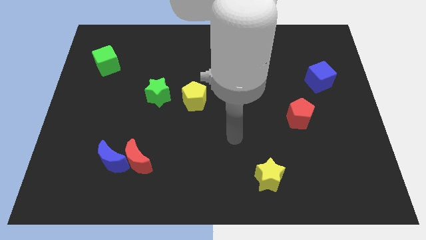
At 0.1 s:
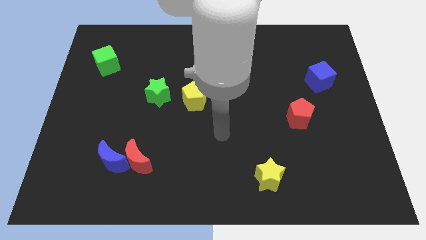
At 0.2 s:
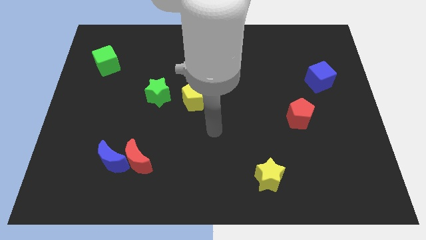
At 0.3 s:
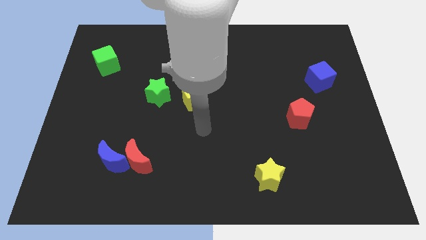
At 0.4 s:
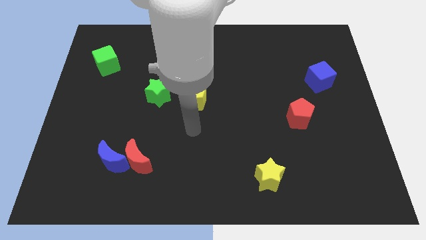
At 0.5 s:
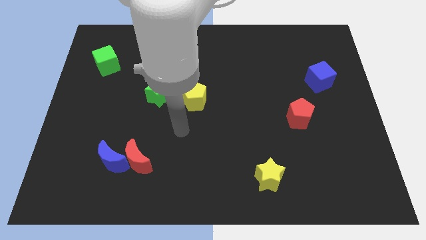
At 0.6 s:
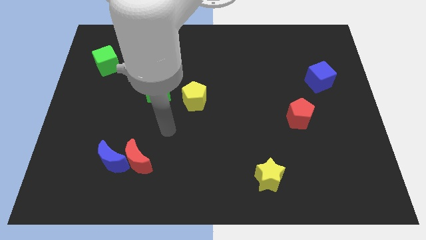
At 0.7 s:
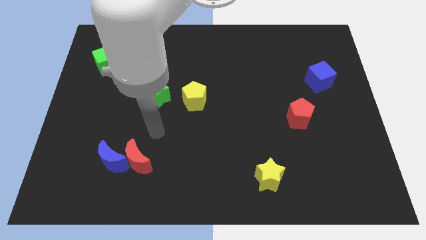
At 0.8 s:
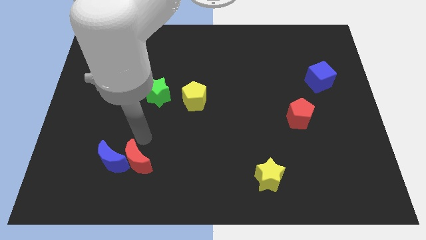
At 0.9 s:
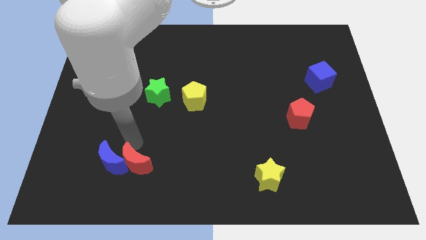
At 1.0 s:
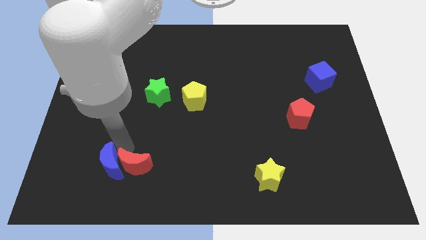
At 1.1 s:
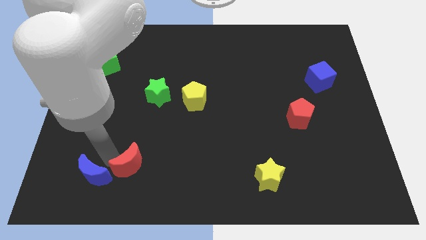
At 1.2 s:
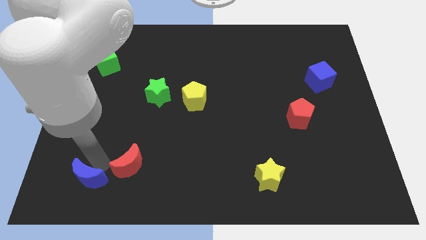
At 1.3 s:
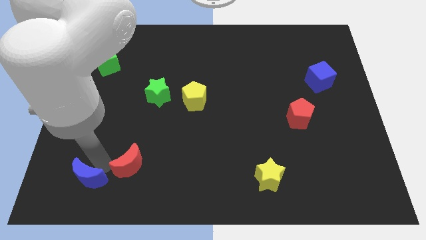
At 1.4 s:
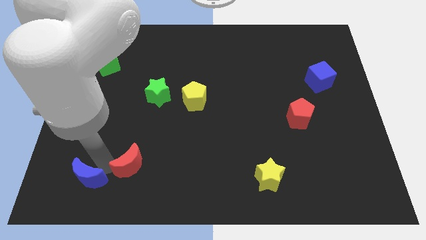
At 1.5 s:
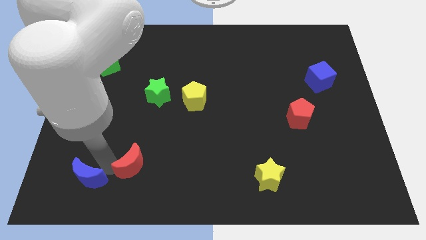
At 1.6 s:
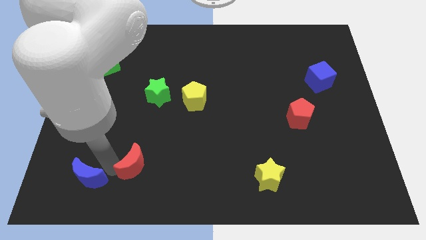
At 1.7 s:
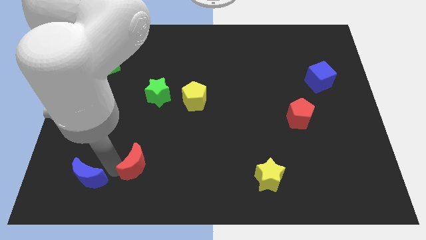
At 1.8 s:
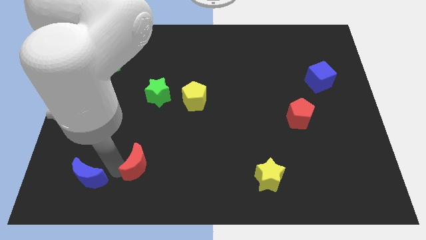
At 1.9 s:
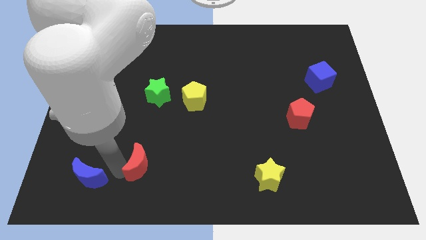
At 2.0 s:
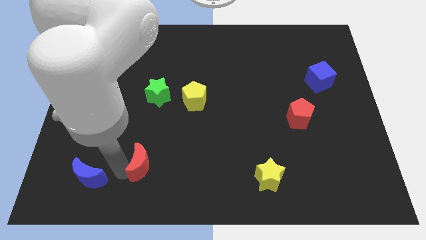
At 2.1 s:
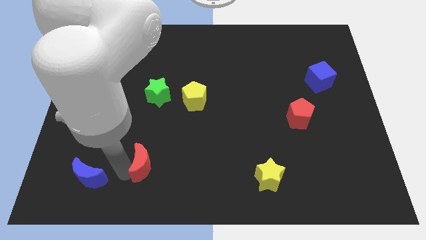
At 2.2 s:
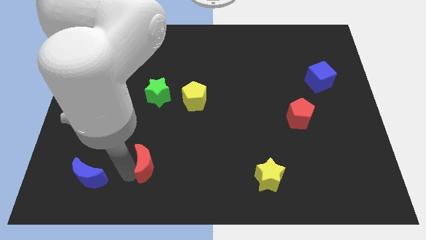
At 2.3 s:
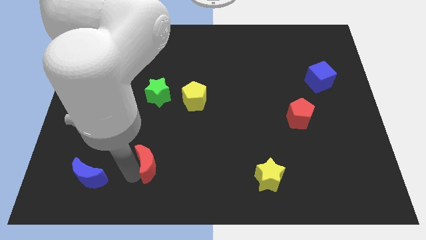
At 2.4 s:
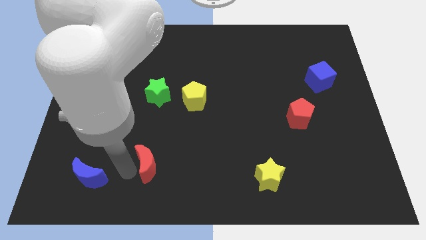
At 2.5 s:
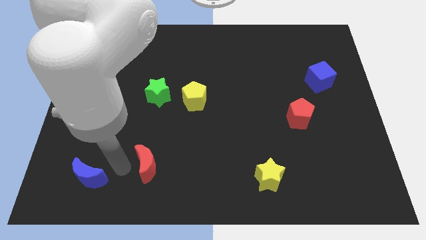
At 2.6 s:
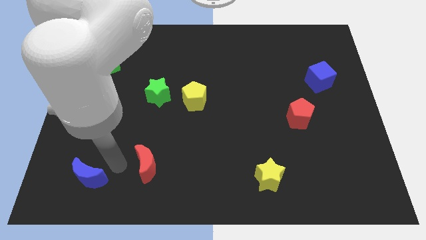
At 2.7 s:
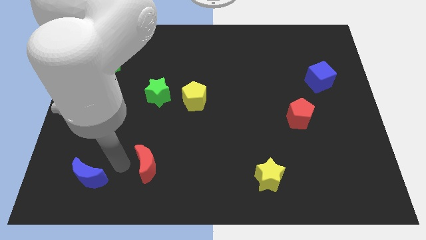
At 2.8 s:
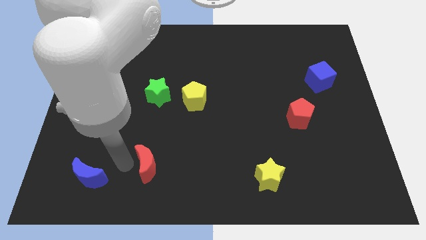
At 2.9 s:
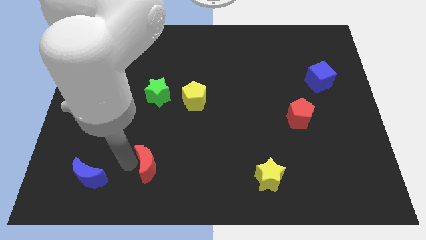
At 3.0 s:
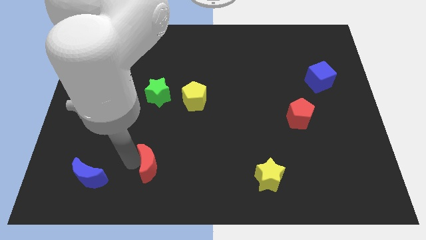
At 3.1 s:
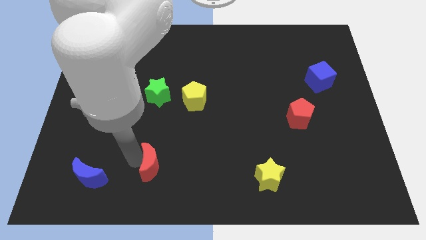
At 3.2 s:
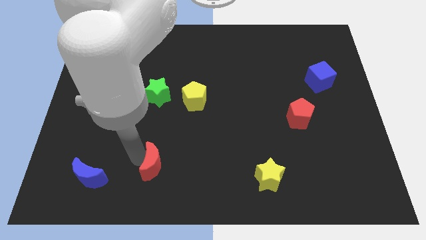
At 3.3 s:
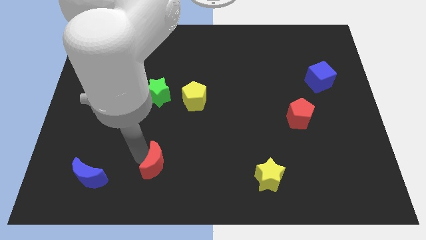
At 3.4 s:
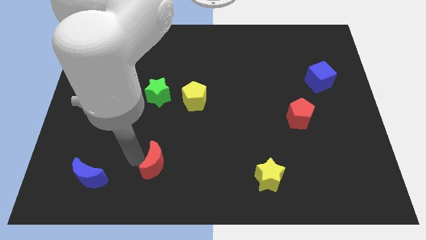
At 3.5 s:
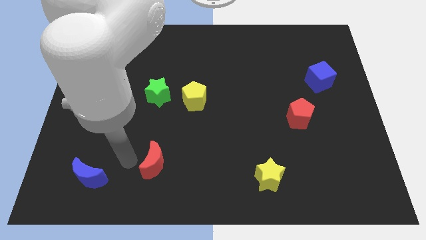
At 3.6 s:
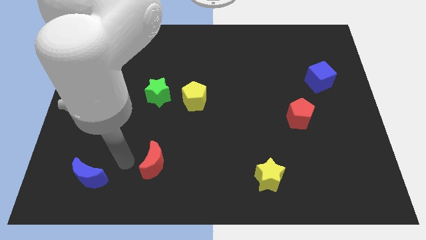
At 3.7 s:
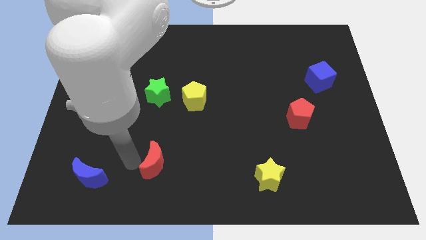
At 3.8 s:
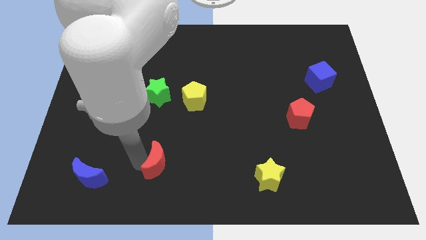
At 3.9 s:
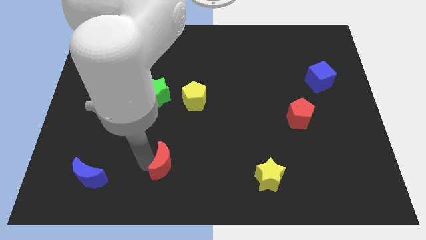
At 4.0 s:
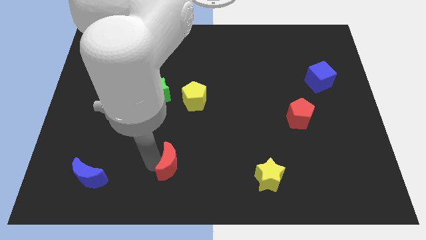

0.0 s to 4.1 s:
slightly move the red moon right

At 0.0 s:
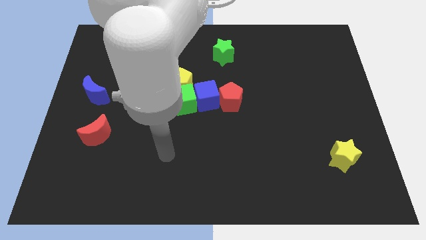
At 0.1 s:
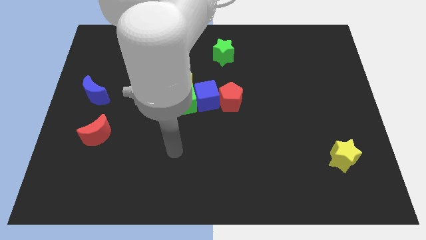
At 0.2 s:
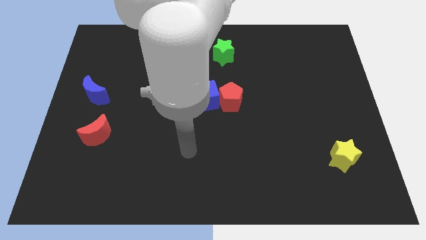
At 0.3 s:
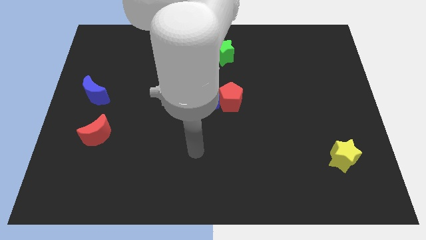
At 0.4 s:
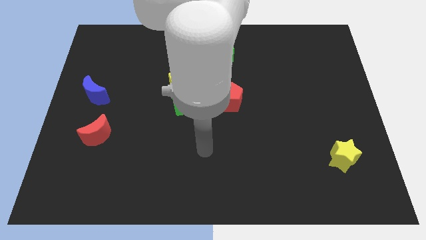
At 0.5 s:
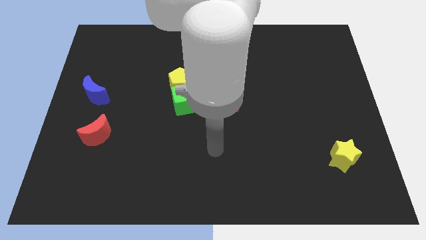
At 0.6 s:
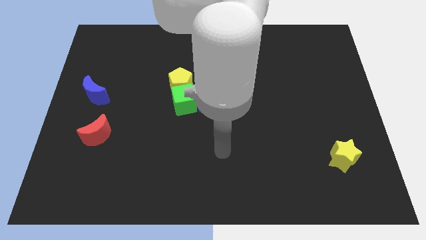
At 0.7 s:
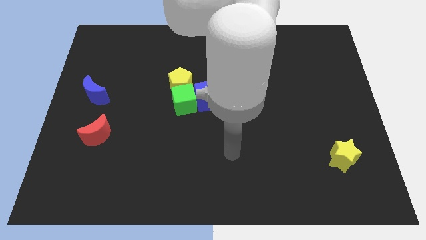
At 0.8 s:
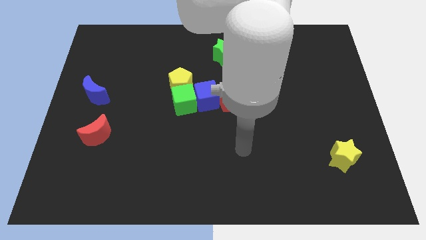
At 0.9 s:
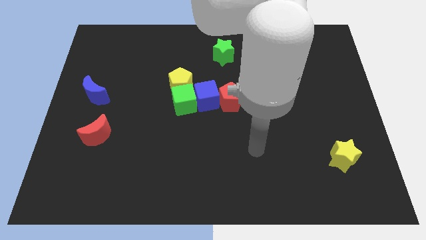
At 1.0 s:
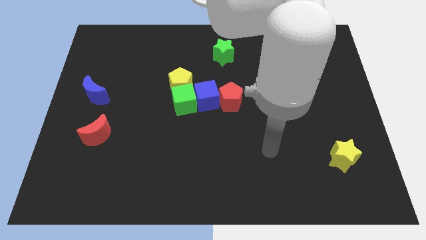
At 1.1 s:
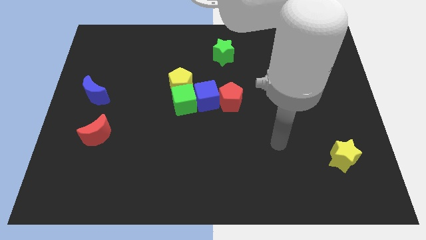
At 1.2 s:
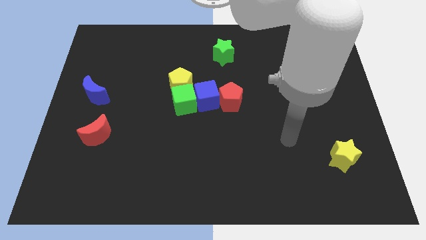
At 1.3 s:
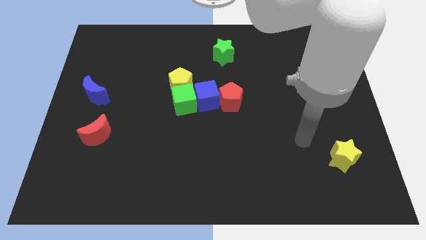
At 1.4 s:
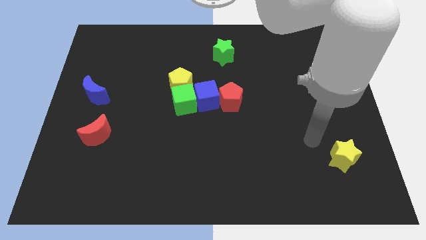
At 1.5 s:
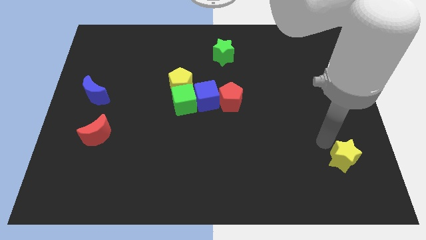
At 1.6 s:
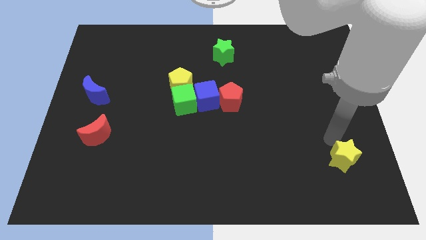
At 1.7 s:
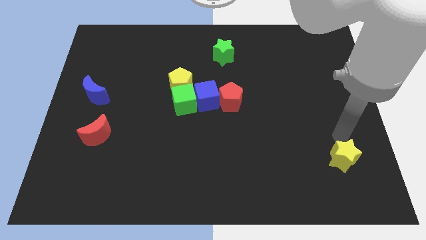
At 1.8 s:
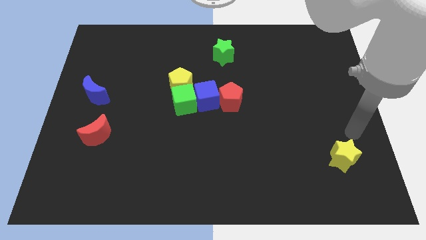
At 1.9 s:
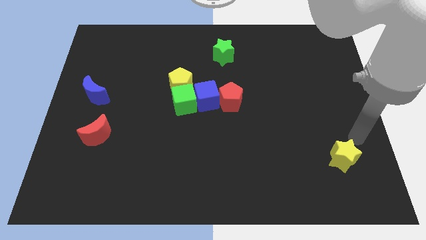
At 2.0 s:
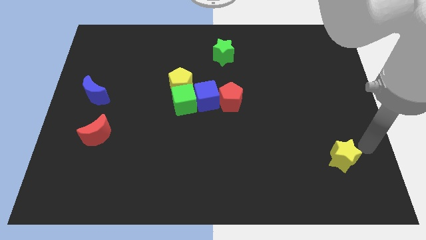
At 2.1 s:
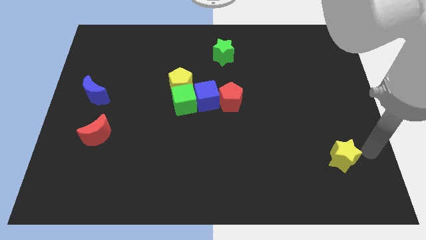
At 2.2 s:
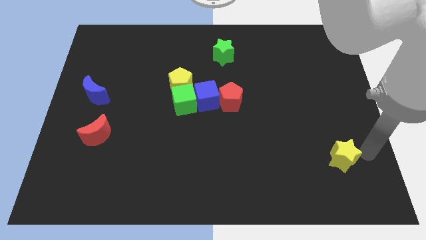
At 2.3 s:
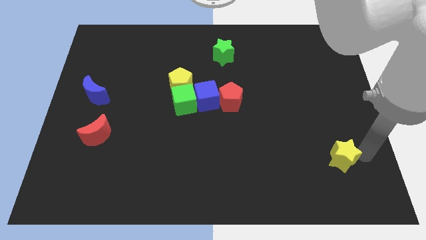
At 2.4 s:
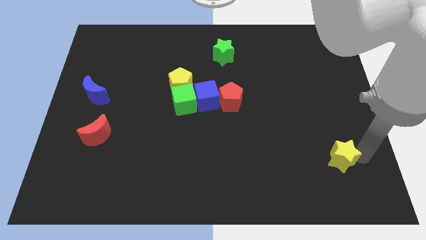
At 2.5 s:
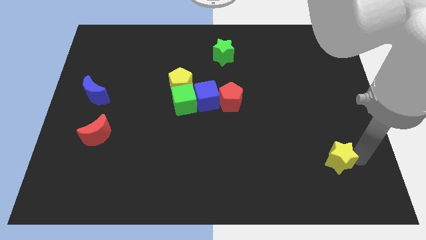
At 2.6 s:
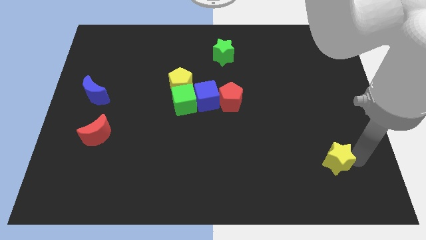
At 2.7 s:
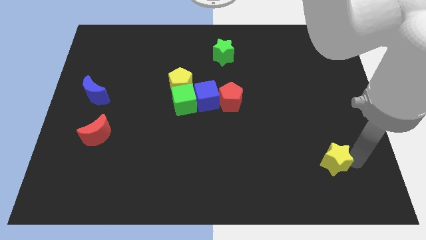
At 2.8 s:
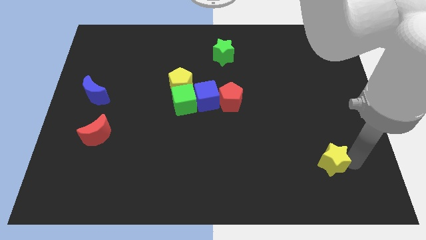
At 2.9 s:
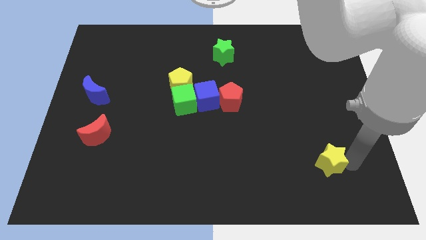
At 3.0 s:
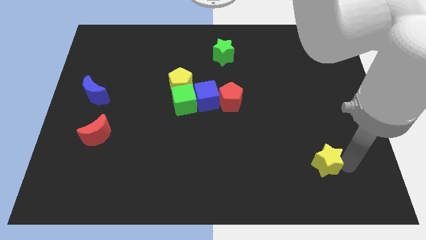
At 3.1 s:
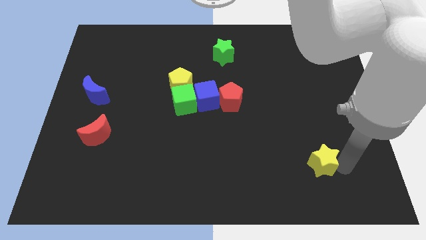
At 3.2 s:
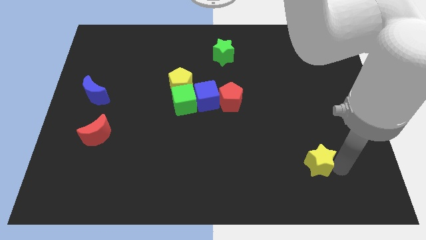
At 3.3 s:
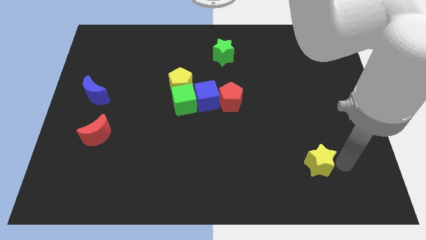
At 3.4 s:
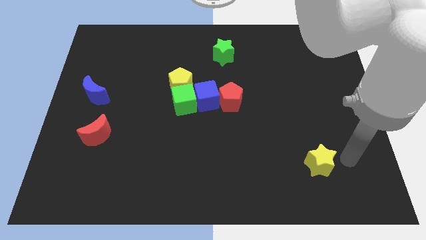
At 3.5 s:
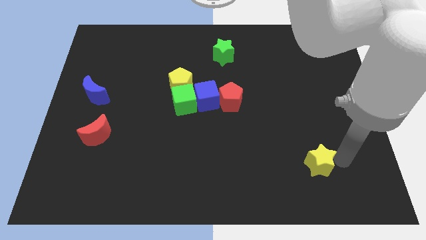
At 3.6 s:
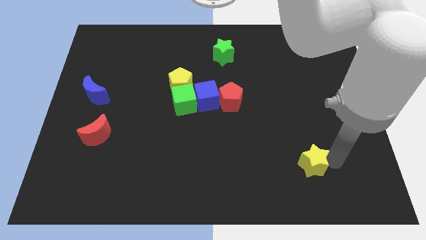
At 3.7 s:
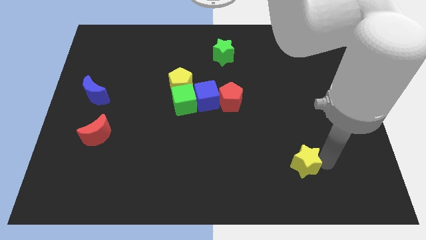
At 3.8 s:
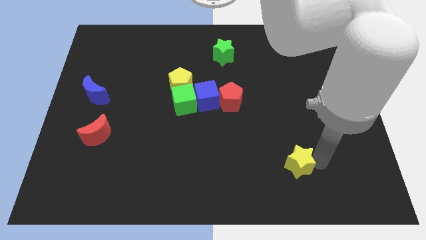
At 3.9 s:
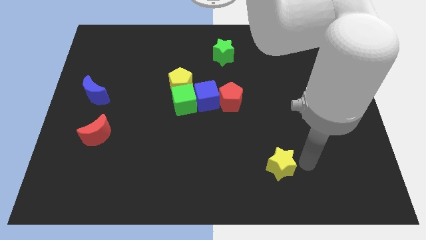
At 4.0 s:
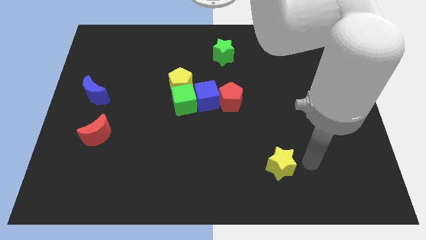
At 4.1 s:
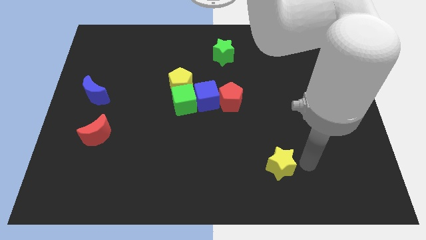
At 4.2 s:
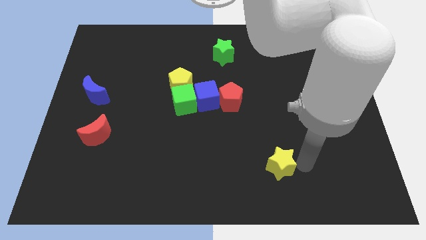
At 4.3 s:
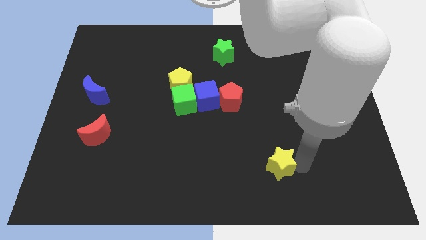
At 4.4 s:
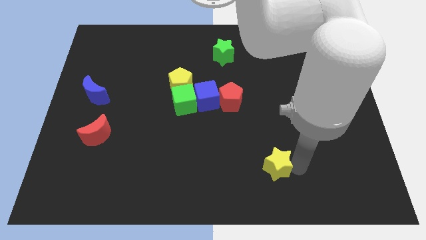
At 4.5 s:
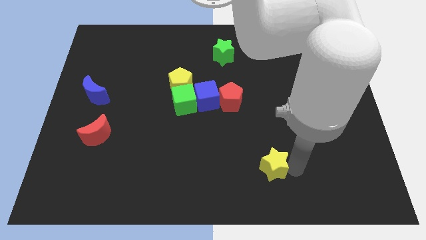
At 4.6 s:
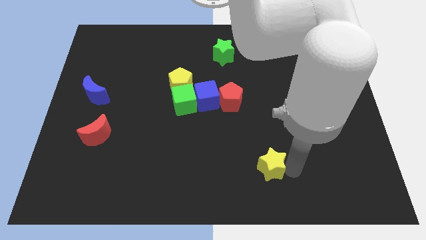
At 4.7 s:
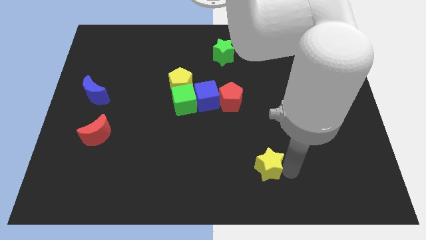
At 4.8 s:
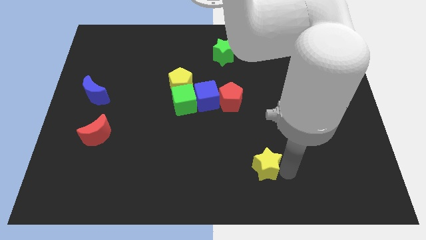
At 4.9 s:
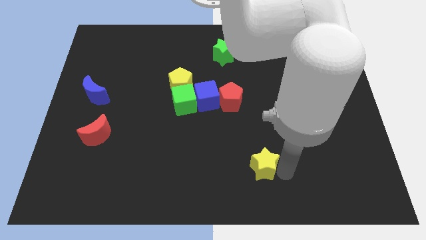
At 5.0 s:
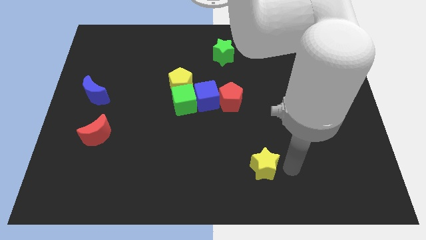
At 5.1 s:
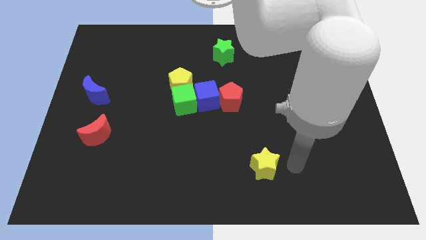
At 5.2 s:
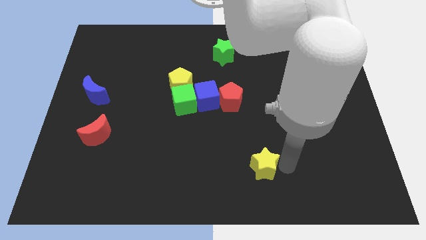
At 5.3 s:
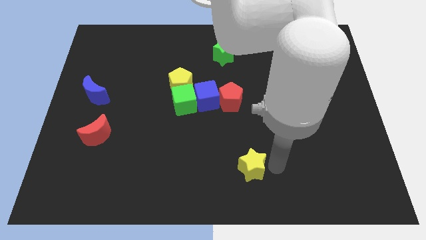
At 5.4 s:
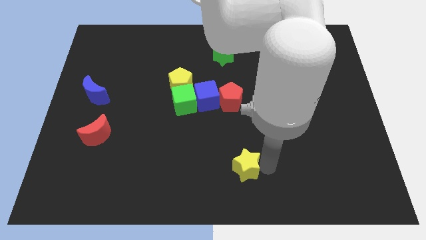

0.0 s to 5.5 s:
move the yellow star to the left
